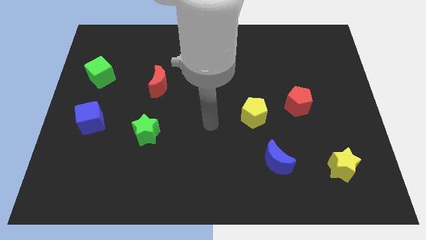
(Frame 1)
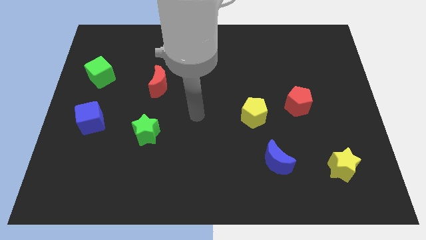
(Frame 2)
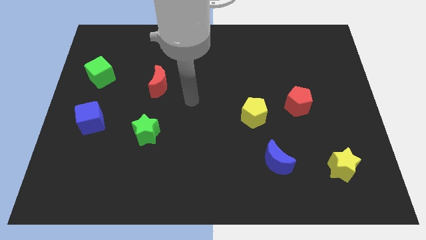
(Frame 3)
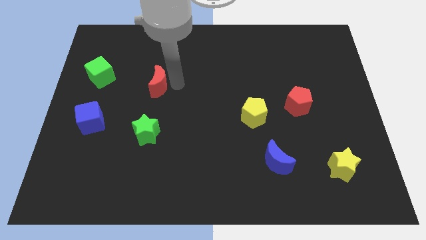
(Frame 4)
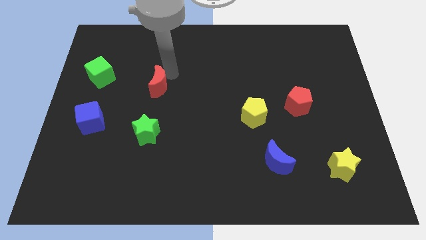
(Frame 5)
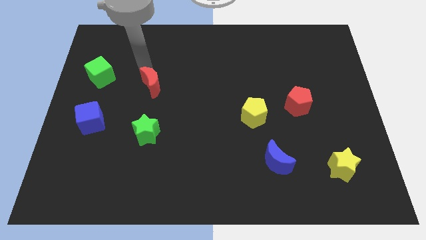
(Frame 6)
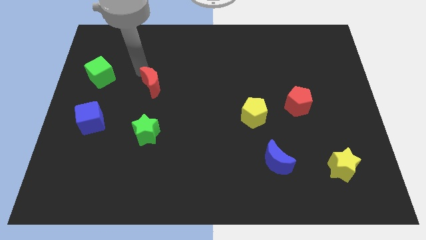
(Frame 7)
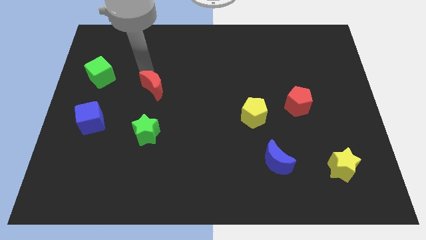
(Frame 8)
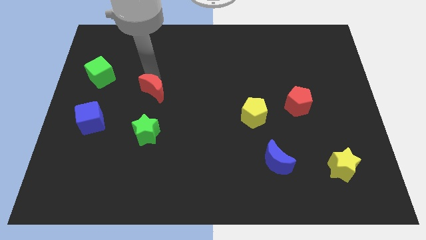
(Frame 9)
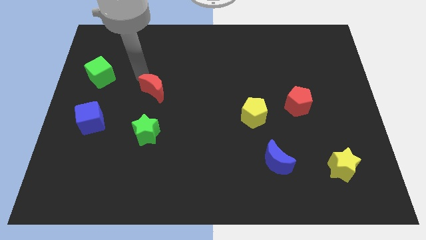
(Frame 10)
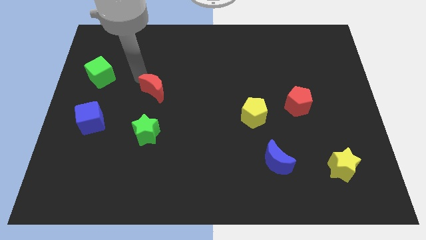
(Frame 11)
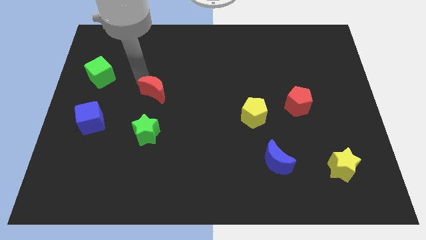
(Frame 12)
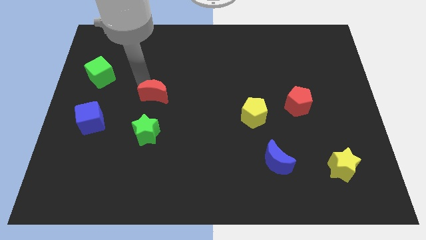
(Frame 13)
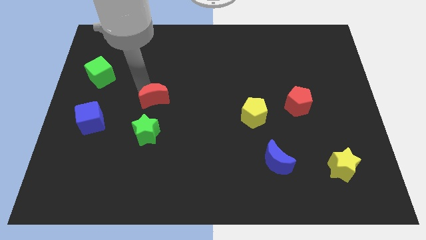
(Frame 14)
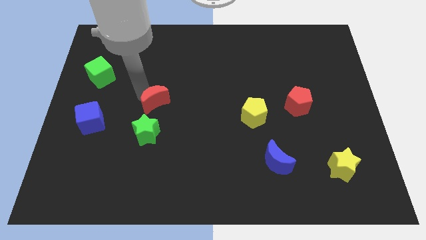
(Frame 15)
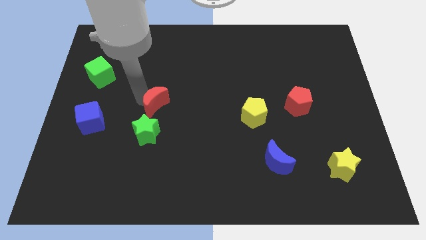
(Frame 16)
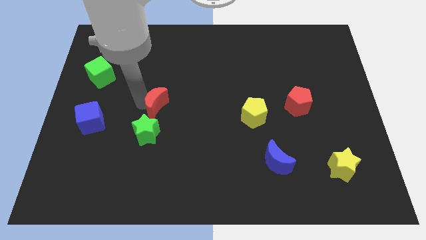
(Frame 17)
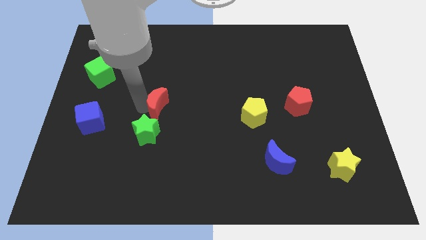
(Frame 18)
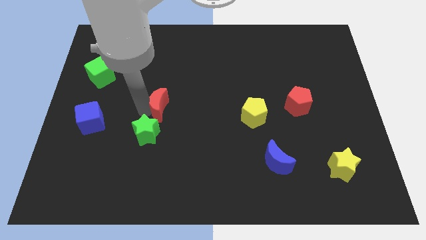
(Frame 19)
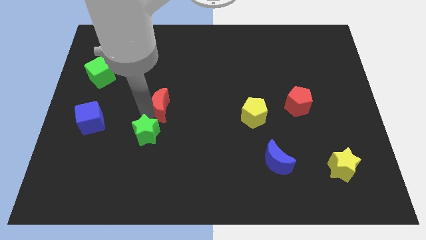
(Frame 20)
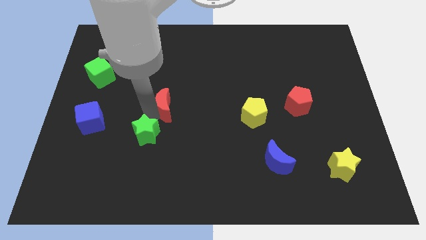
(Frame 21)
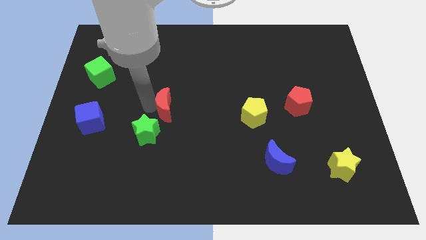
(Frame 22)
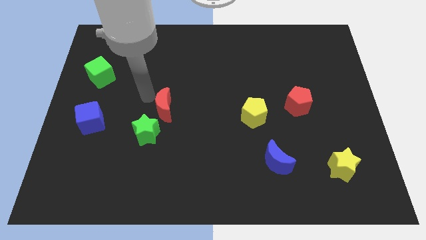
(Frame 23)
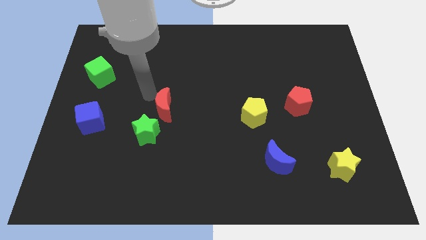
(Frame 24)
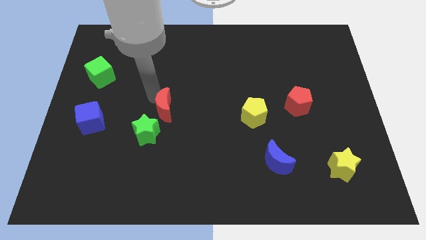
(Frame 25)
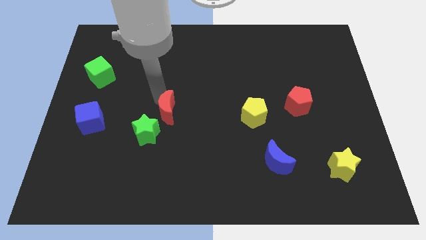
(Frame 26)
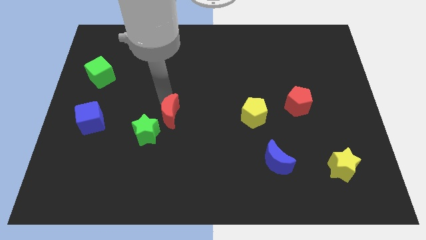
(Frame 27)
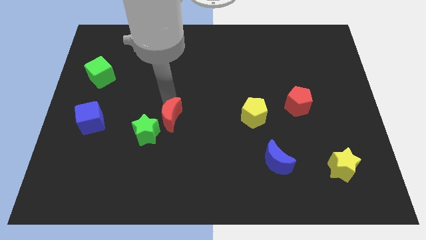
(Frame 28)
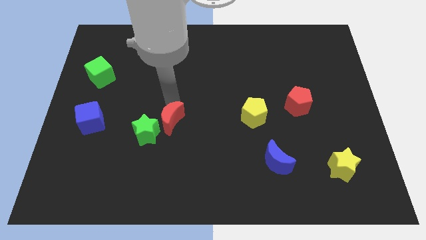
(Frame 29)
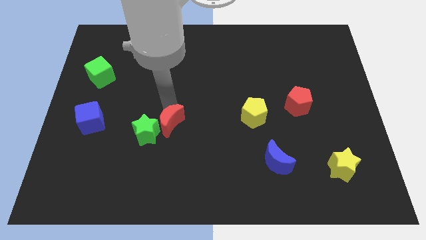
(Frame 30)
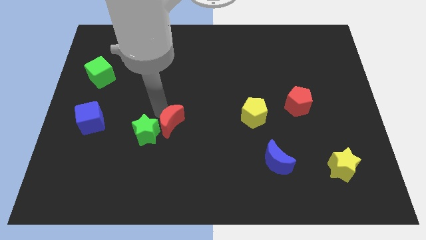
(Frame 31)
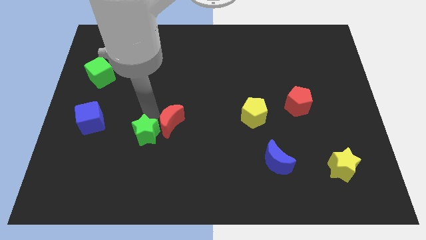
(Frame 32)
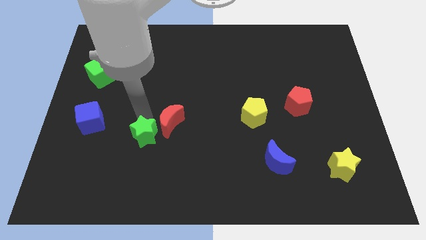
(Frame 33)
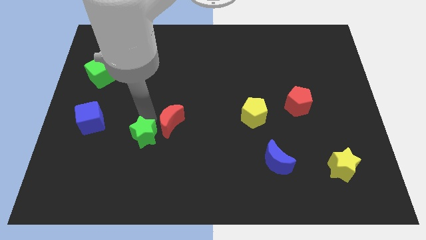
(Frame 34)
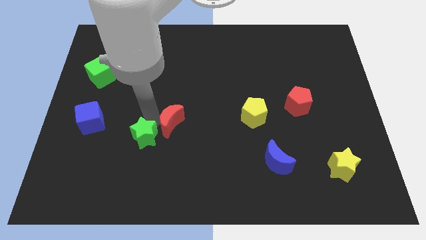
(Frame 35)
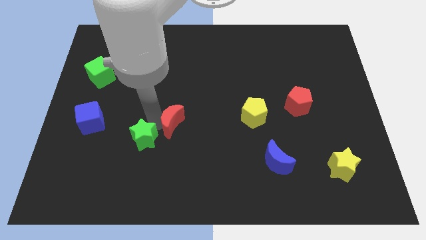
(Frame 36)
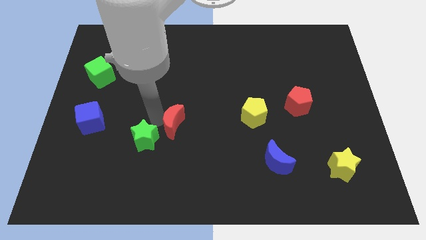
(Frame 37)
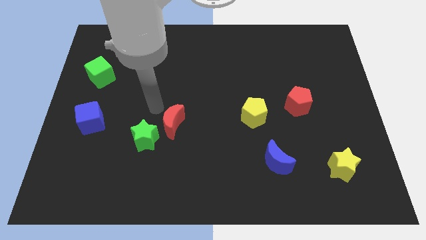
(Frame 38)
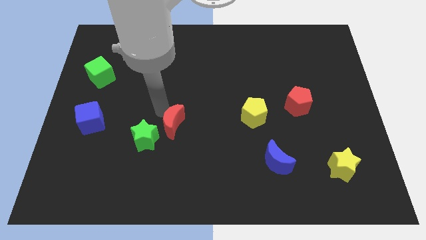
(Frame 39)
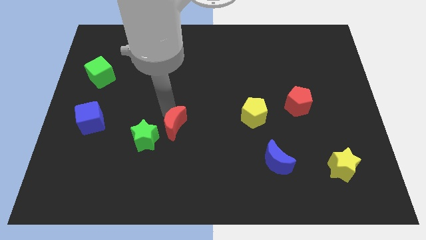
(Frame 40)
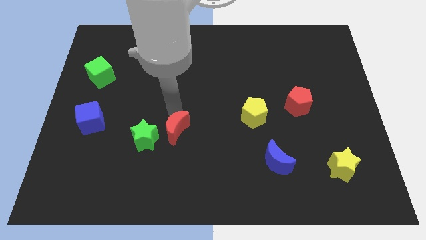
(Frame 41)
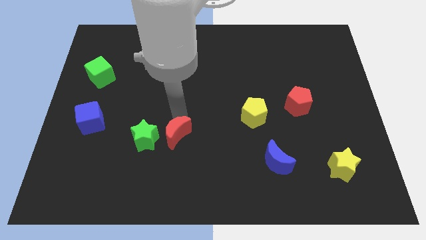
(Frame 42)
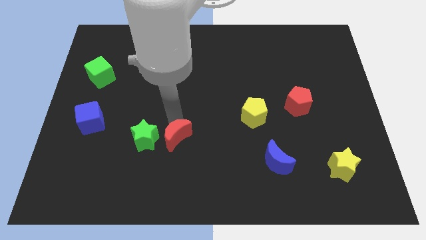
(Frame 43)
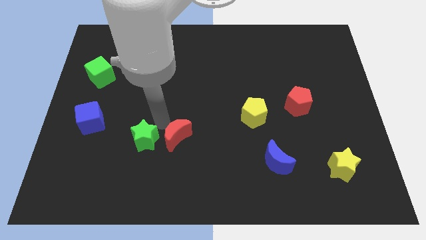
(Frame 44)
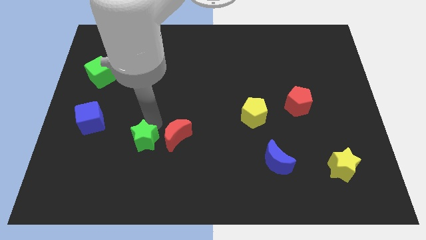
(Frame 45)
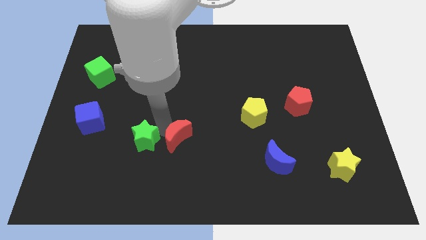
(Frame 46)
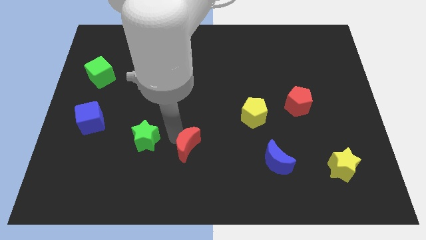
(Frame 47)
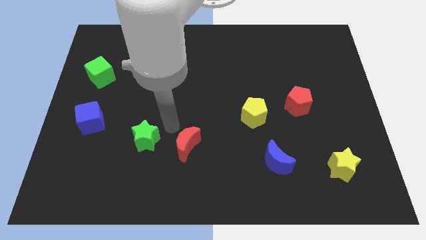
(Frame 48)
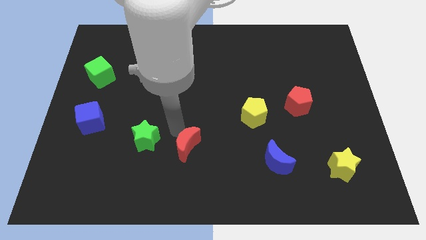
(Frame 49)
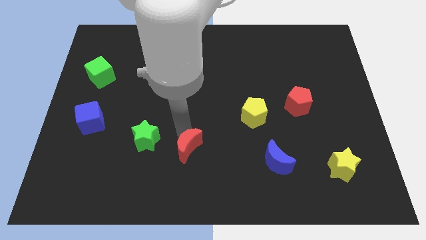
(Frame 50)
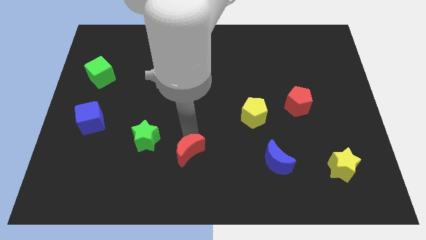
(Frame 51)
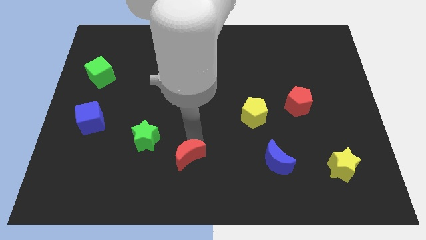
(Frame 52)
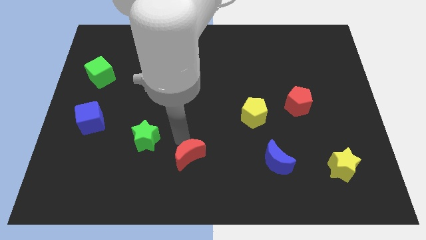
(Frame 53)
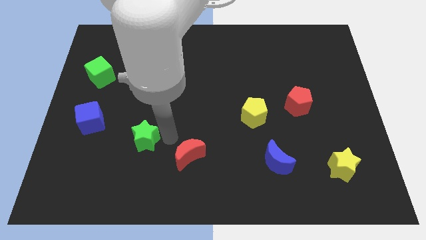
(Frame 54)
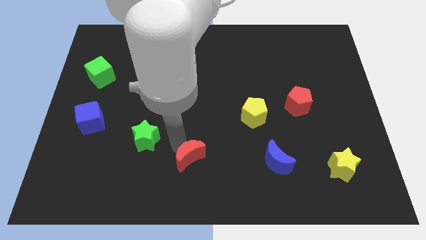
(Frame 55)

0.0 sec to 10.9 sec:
put the red moon to the bottom
